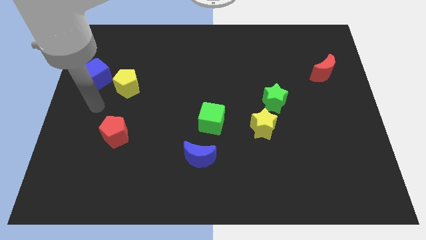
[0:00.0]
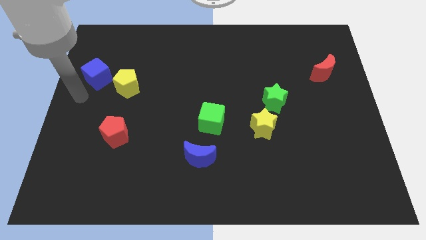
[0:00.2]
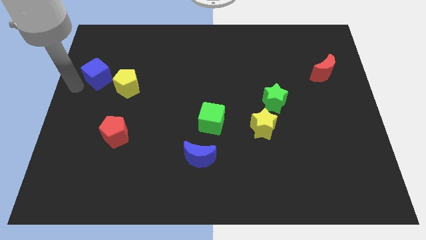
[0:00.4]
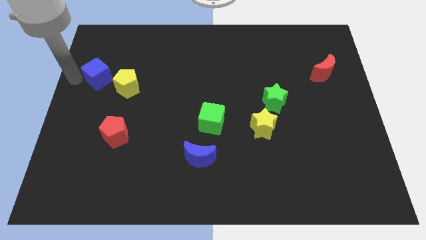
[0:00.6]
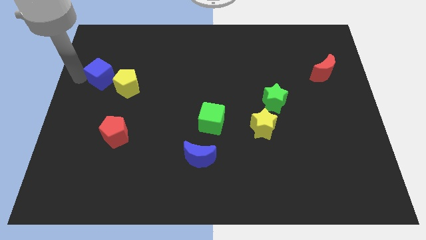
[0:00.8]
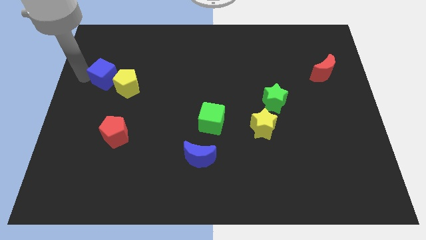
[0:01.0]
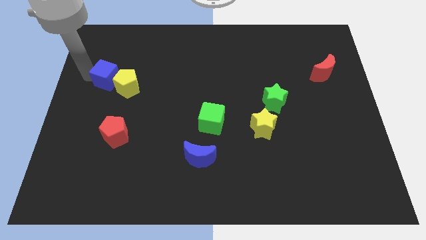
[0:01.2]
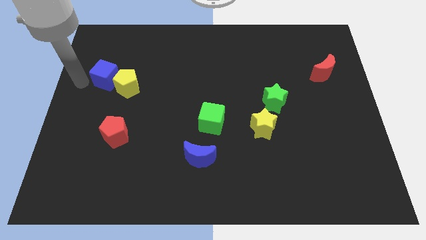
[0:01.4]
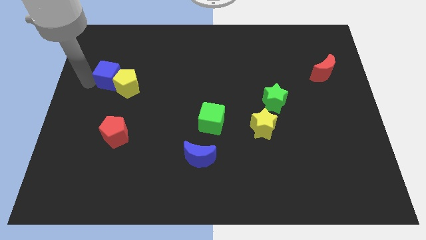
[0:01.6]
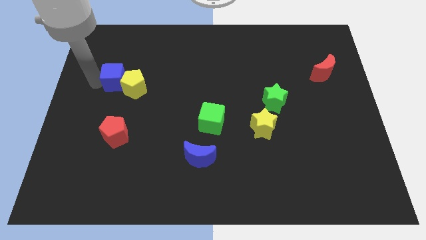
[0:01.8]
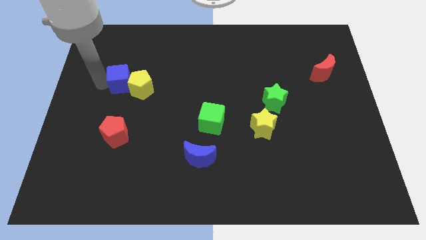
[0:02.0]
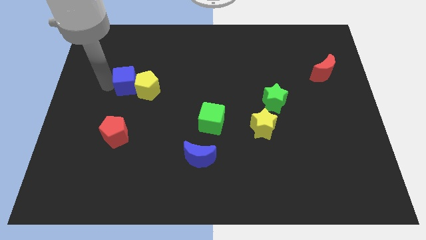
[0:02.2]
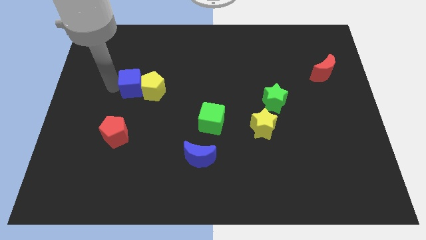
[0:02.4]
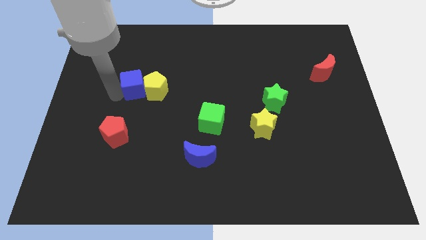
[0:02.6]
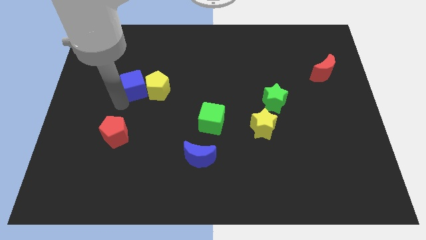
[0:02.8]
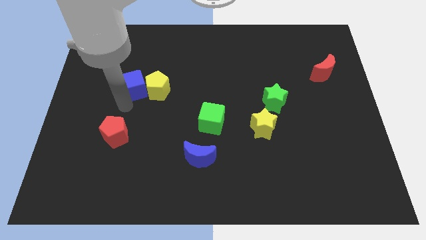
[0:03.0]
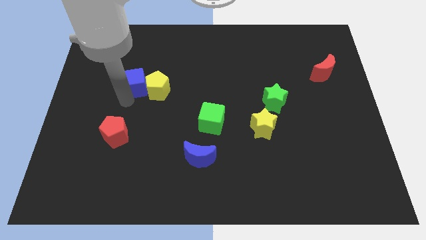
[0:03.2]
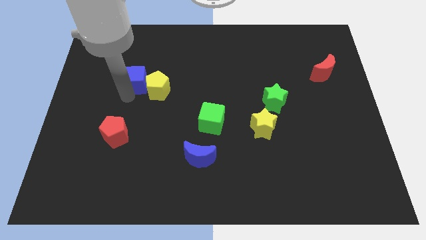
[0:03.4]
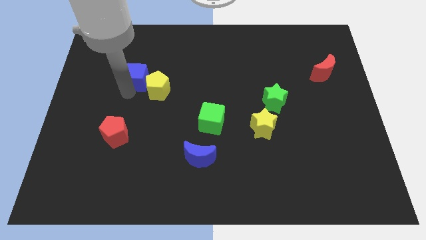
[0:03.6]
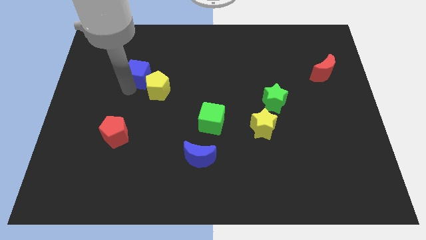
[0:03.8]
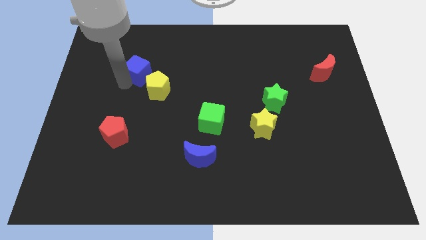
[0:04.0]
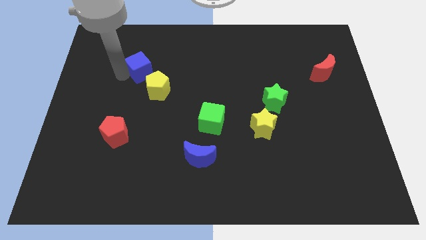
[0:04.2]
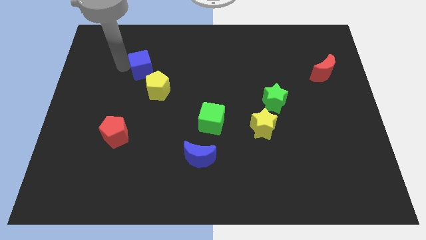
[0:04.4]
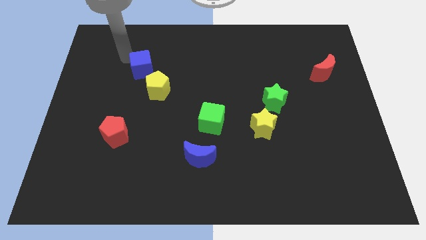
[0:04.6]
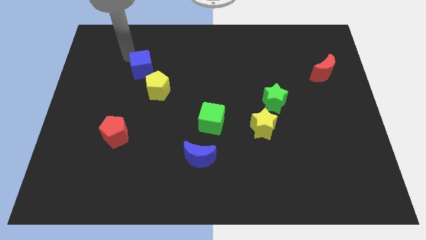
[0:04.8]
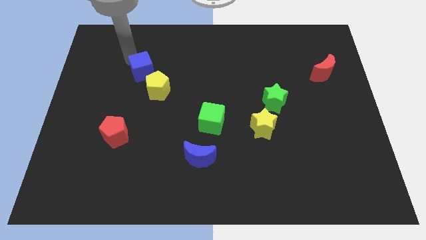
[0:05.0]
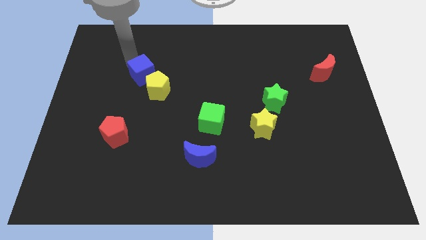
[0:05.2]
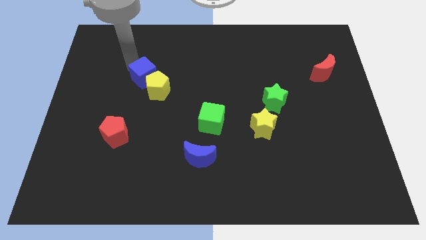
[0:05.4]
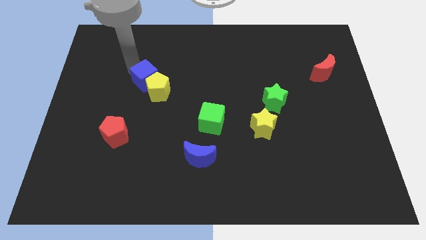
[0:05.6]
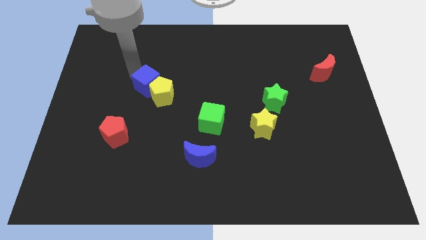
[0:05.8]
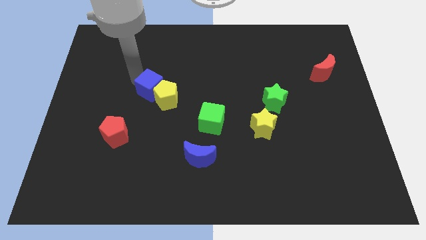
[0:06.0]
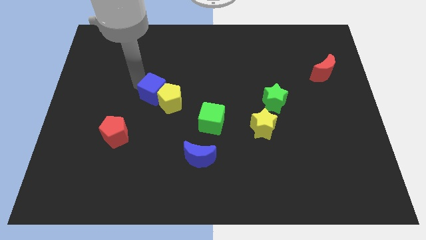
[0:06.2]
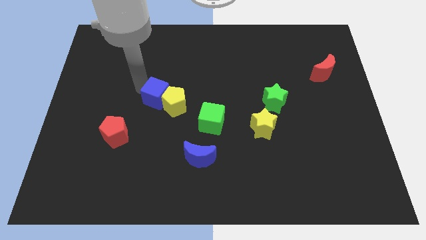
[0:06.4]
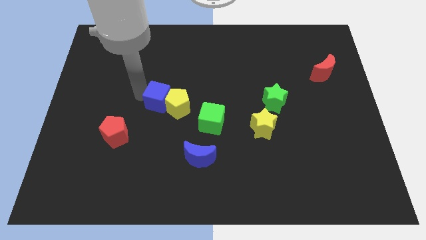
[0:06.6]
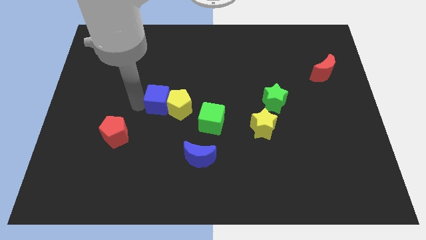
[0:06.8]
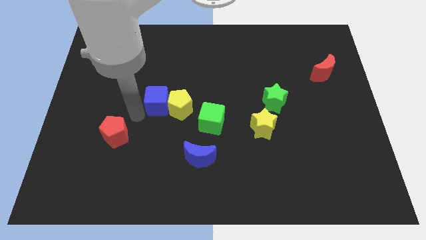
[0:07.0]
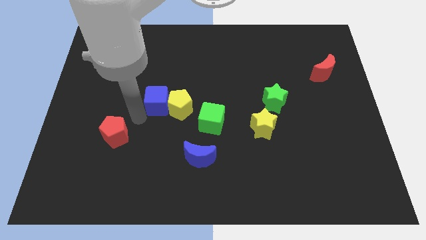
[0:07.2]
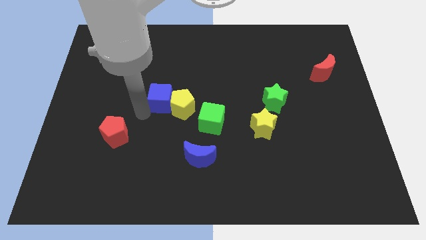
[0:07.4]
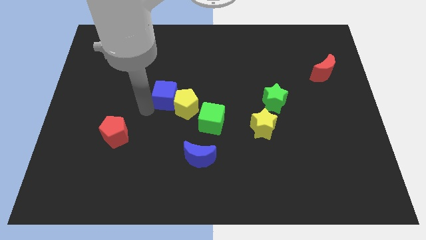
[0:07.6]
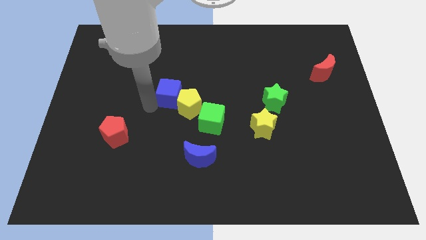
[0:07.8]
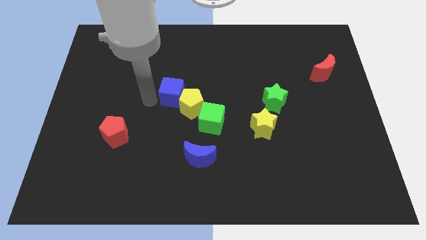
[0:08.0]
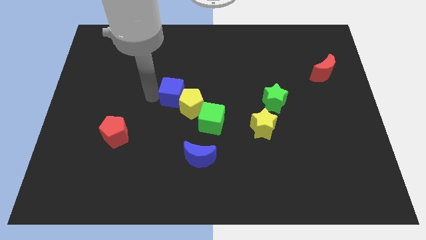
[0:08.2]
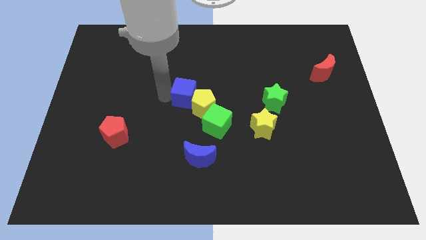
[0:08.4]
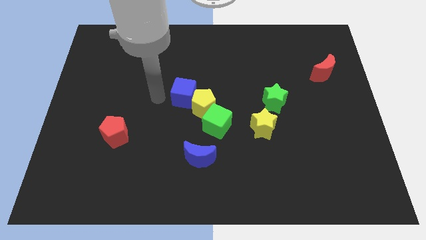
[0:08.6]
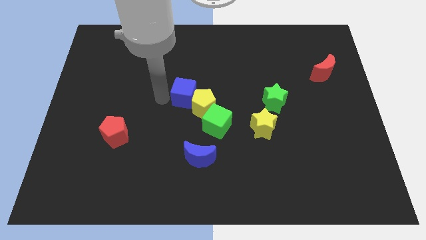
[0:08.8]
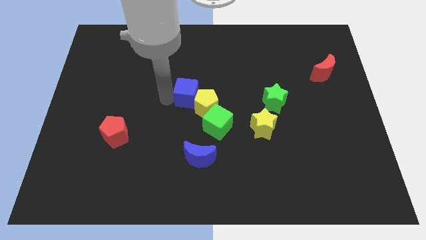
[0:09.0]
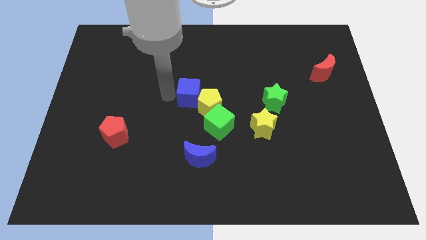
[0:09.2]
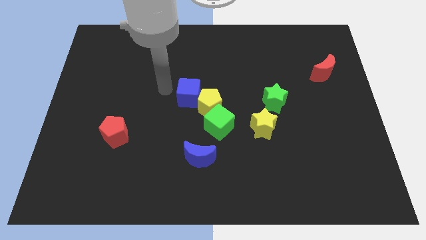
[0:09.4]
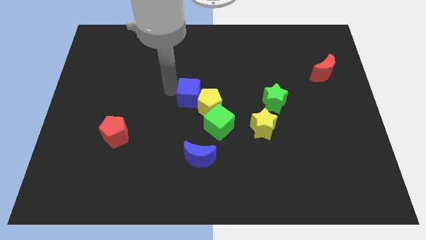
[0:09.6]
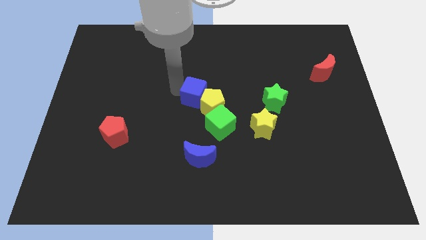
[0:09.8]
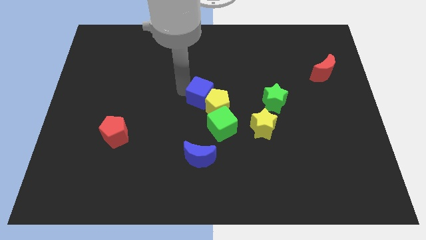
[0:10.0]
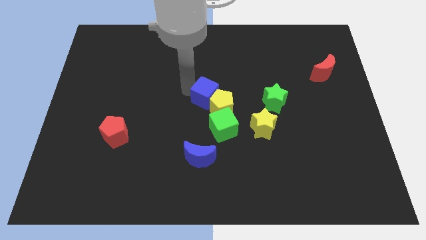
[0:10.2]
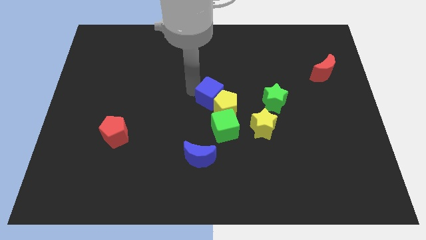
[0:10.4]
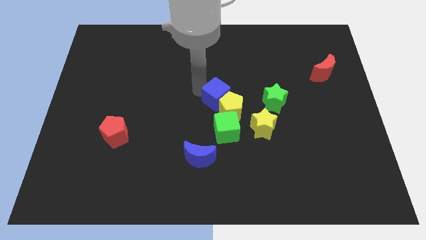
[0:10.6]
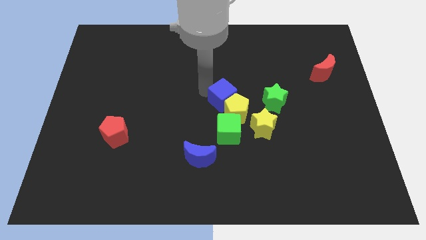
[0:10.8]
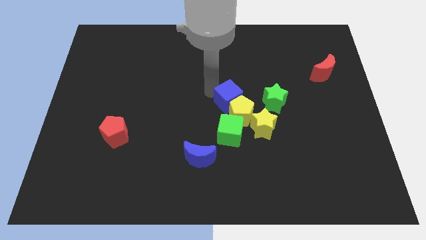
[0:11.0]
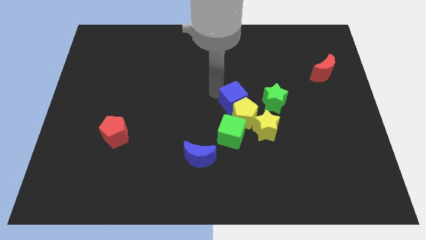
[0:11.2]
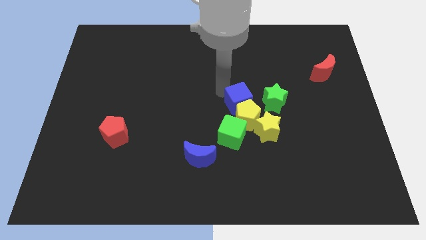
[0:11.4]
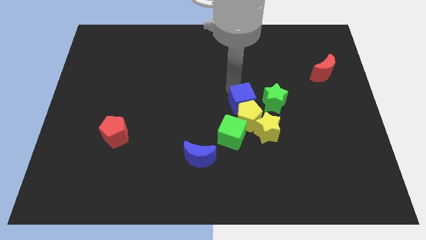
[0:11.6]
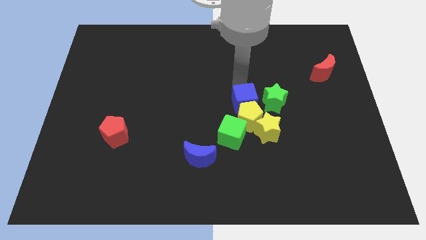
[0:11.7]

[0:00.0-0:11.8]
move the blue cube to the bottom left of the green star

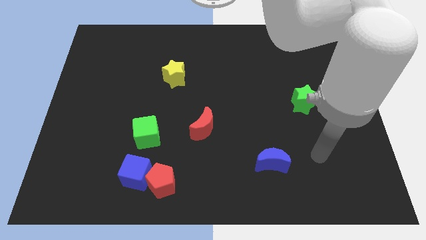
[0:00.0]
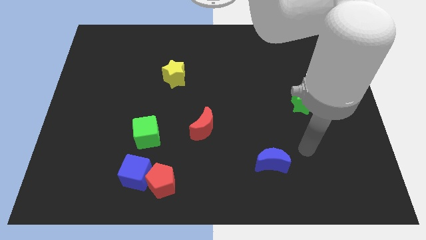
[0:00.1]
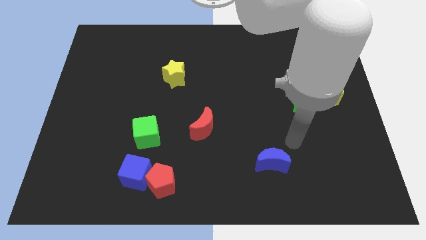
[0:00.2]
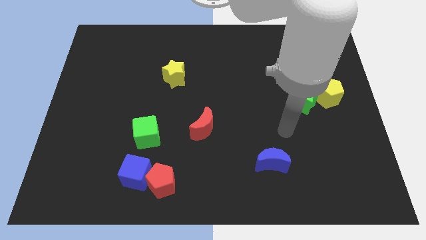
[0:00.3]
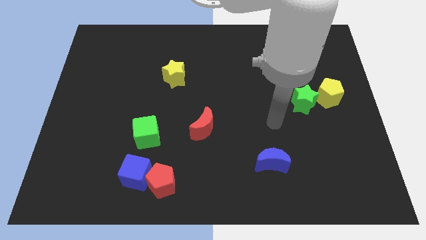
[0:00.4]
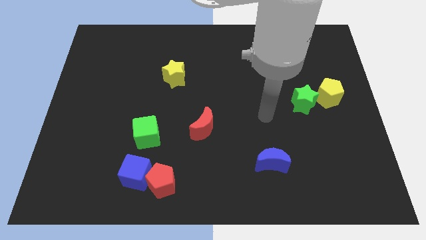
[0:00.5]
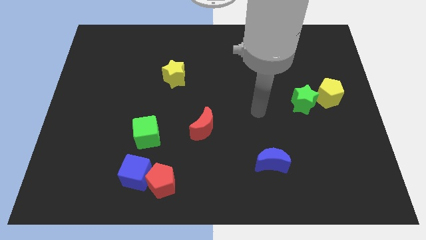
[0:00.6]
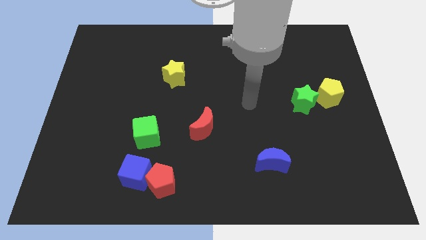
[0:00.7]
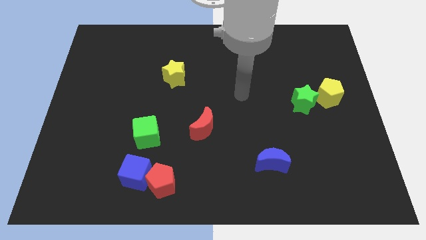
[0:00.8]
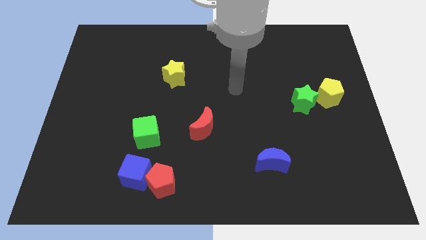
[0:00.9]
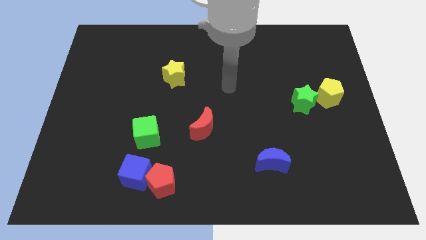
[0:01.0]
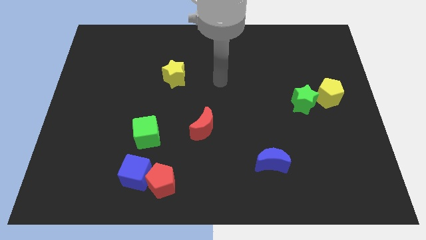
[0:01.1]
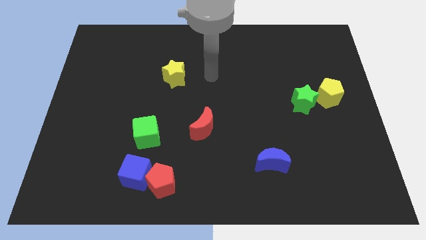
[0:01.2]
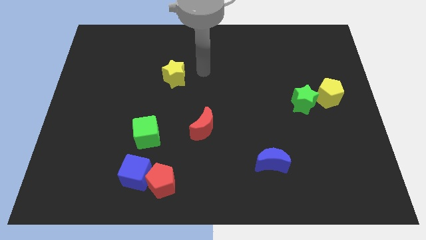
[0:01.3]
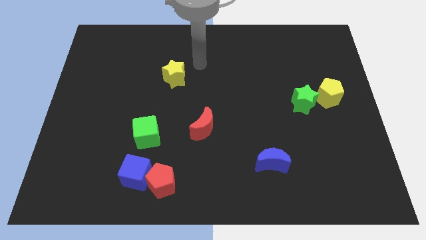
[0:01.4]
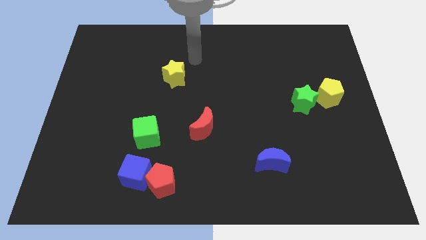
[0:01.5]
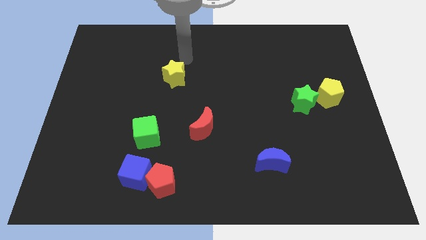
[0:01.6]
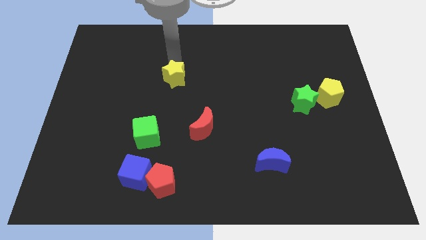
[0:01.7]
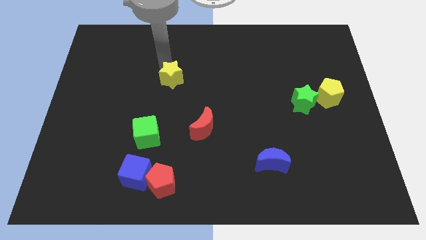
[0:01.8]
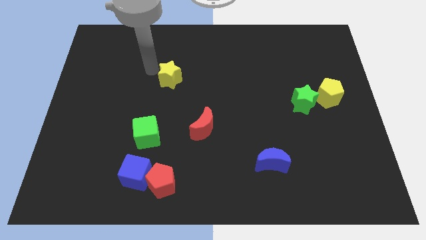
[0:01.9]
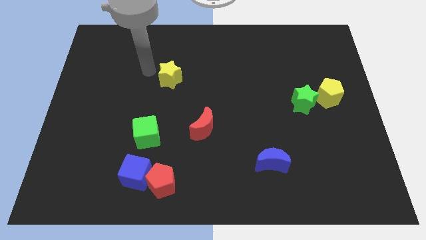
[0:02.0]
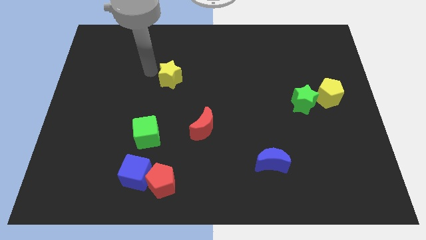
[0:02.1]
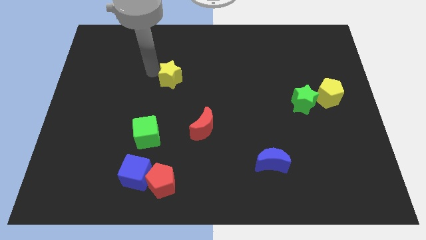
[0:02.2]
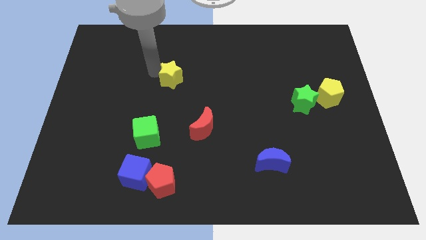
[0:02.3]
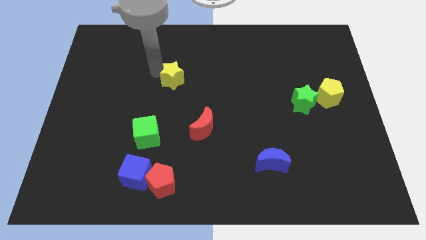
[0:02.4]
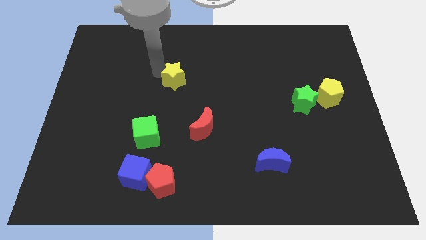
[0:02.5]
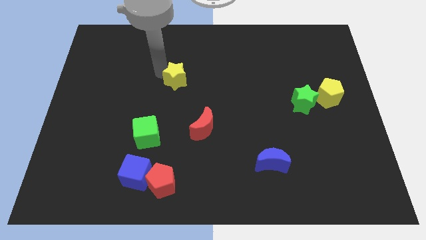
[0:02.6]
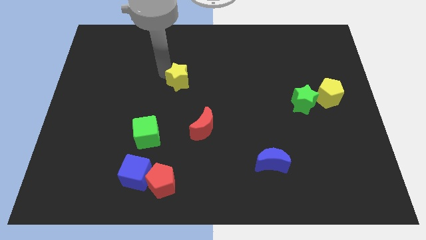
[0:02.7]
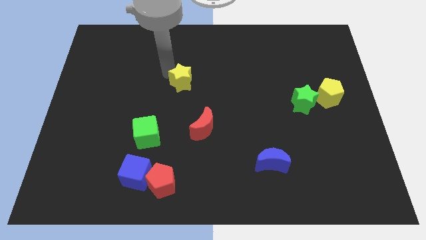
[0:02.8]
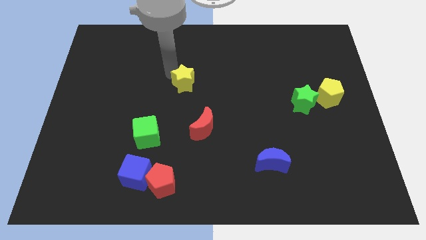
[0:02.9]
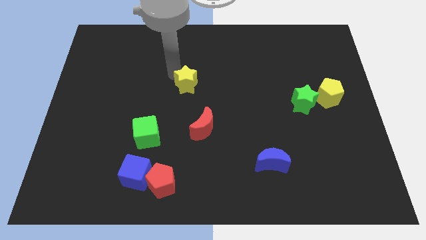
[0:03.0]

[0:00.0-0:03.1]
slide the yellow star above the red moon
